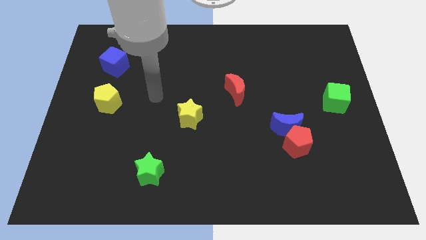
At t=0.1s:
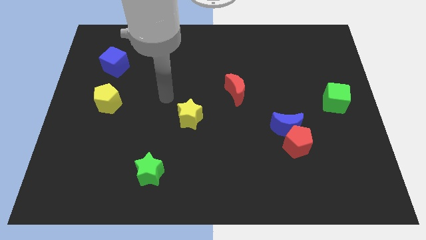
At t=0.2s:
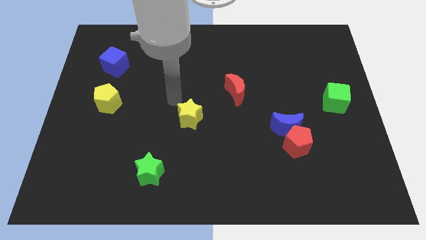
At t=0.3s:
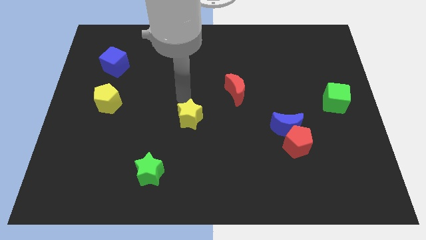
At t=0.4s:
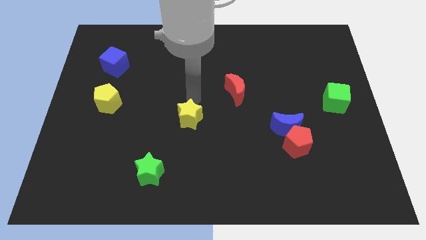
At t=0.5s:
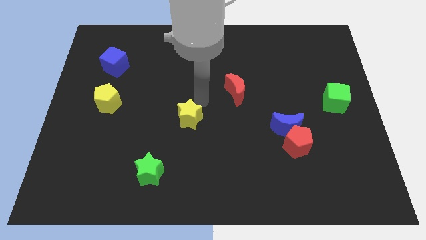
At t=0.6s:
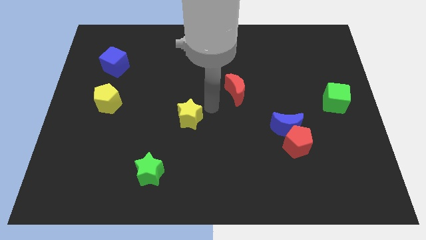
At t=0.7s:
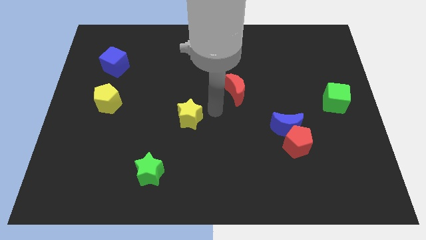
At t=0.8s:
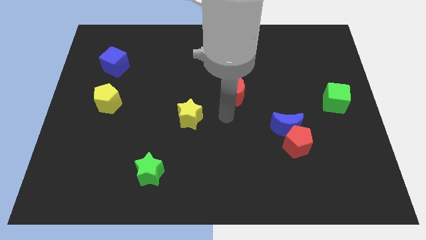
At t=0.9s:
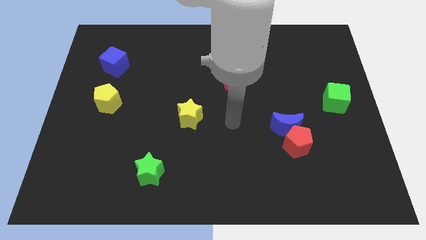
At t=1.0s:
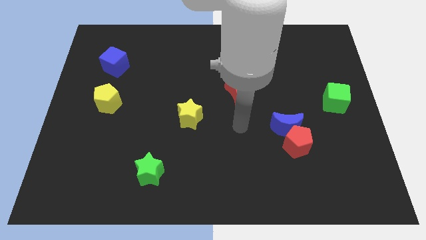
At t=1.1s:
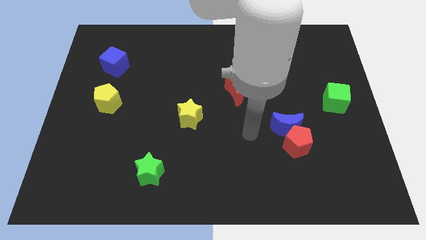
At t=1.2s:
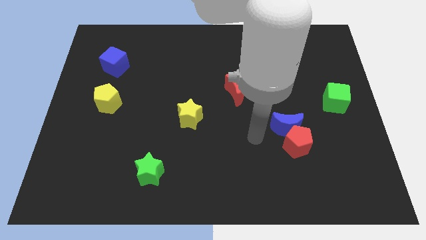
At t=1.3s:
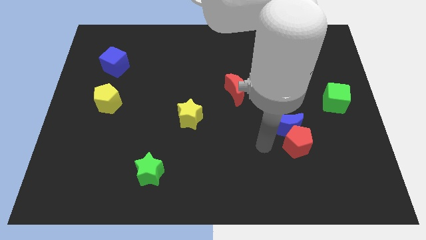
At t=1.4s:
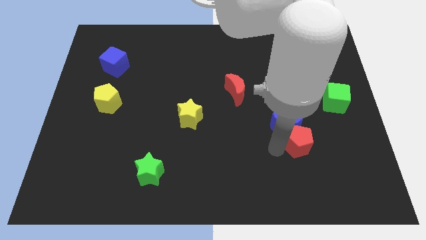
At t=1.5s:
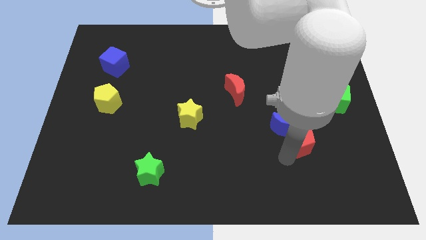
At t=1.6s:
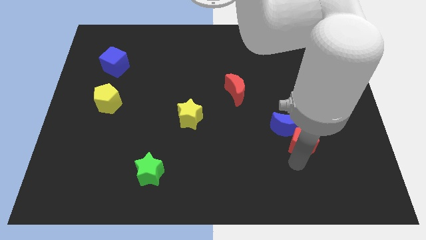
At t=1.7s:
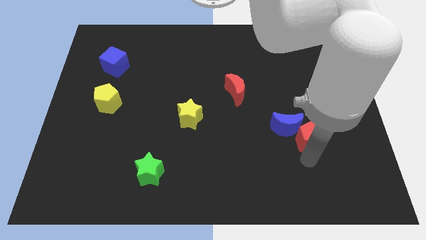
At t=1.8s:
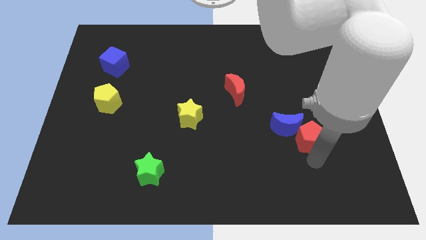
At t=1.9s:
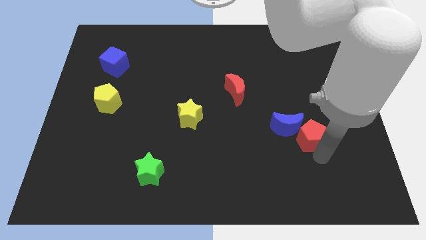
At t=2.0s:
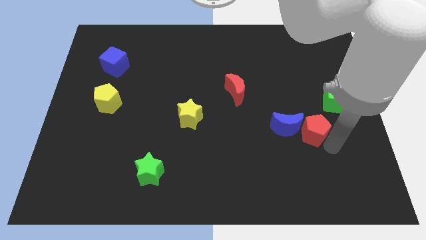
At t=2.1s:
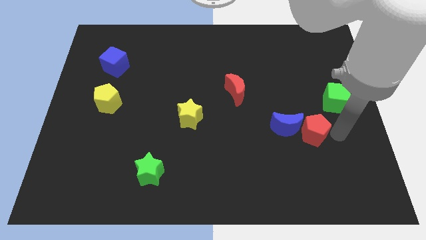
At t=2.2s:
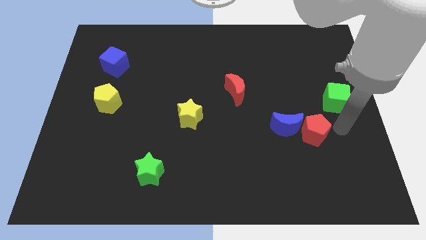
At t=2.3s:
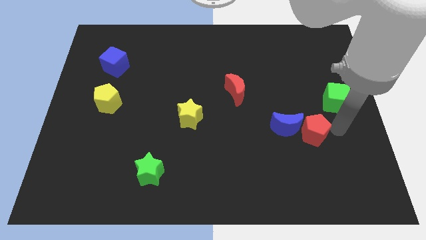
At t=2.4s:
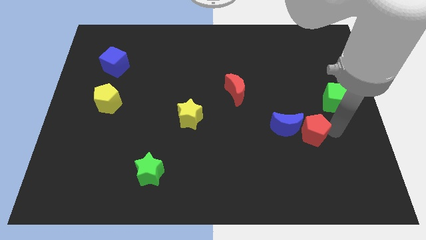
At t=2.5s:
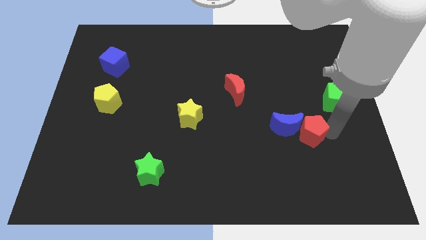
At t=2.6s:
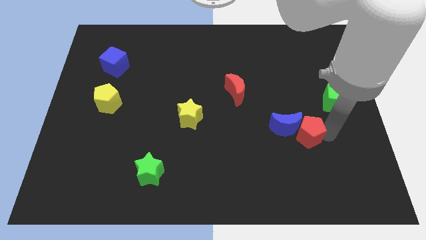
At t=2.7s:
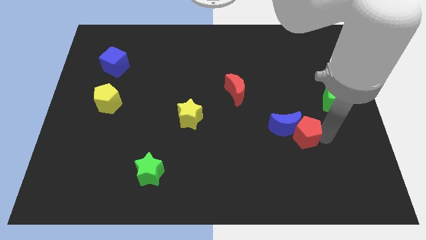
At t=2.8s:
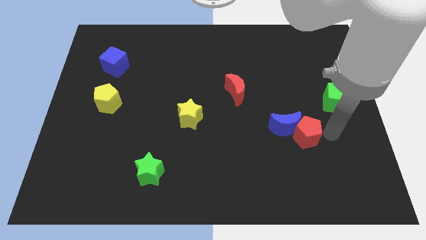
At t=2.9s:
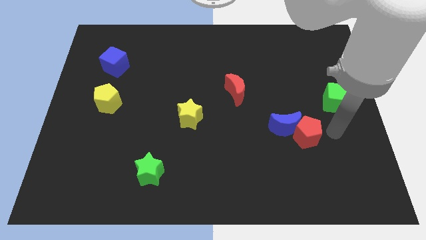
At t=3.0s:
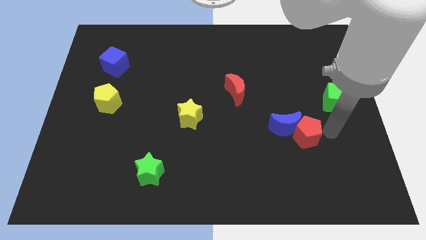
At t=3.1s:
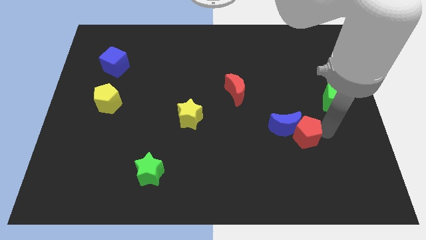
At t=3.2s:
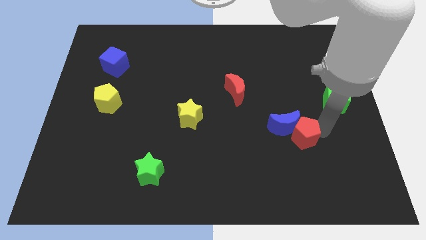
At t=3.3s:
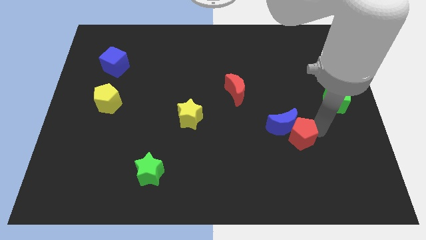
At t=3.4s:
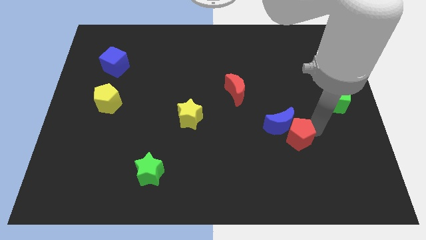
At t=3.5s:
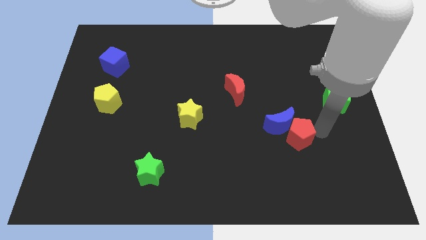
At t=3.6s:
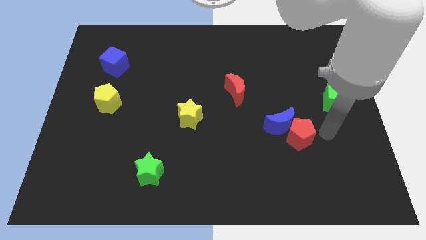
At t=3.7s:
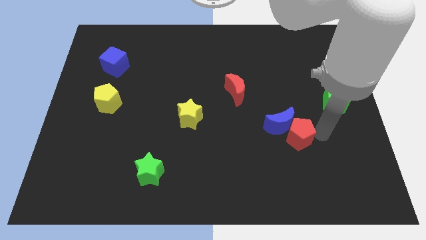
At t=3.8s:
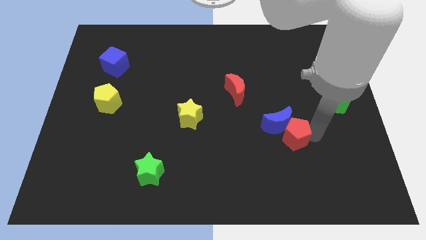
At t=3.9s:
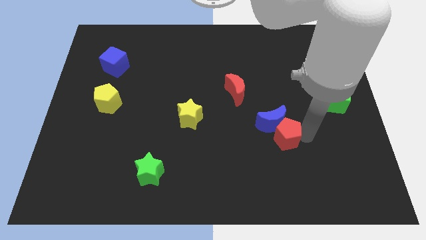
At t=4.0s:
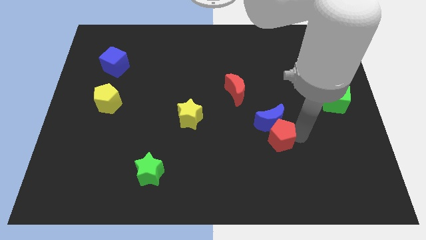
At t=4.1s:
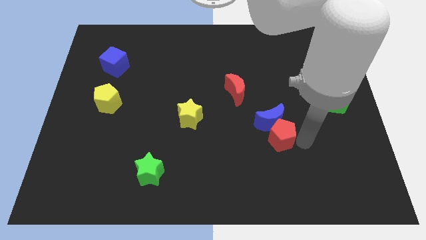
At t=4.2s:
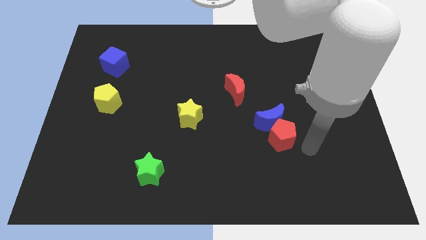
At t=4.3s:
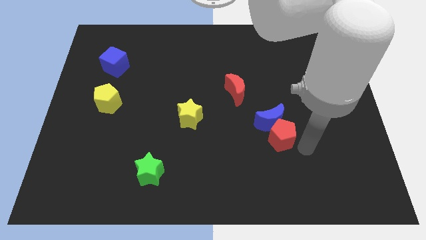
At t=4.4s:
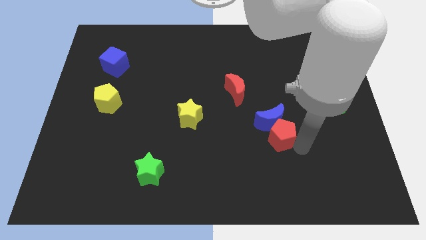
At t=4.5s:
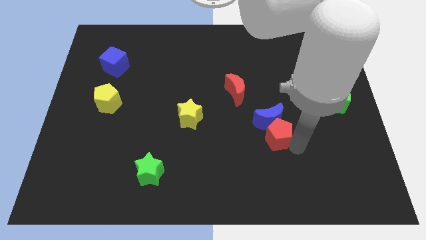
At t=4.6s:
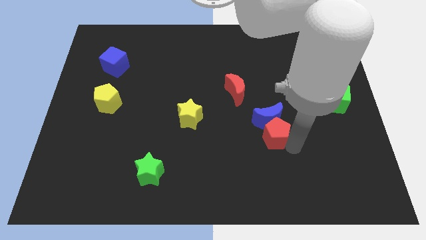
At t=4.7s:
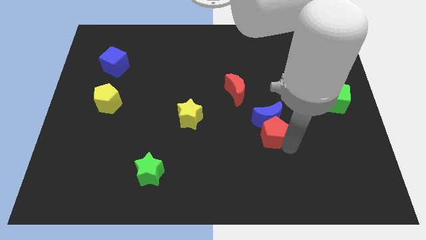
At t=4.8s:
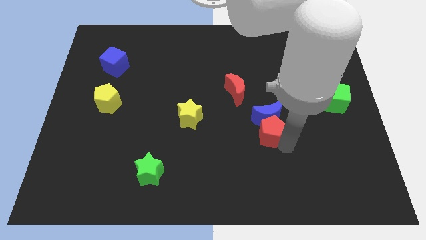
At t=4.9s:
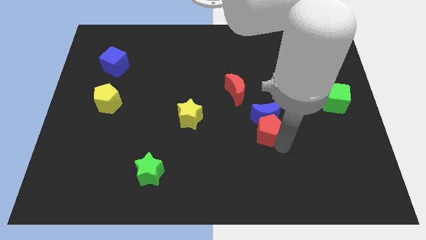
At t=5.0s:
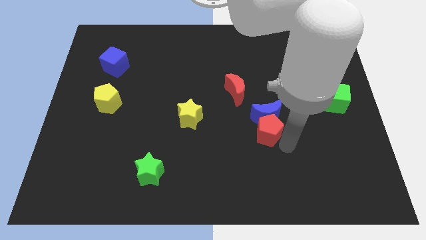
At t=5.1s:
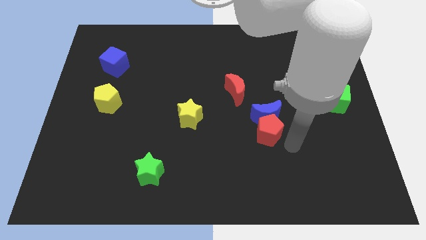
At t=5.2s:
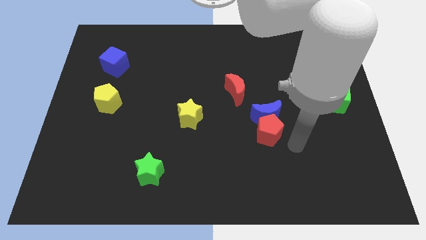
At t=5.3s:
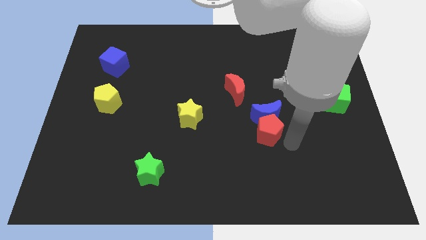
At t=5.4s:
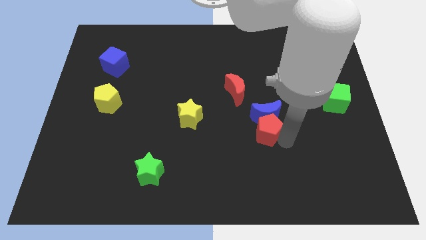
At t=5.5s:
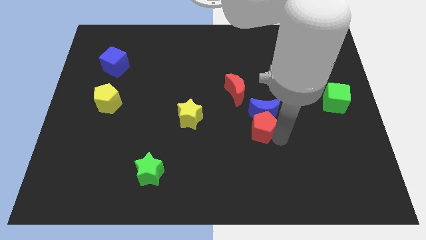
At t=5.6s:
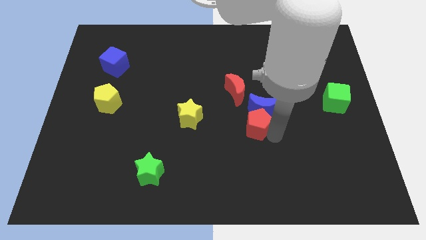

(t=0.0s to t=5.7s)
push the red pentagon to the center
